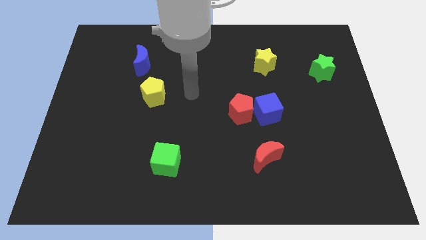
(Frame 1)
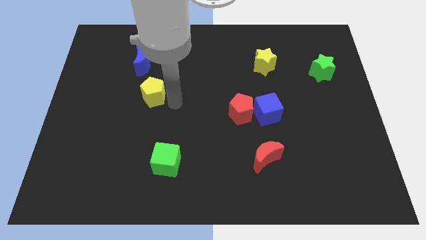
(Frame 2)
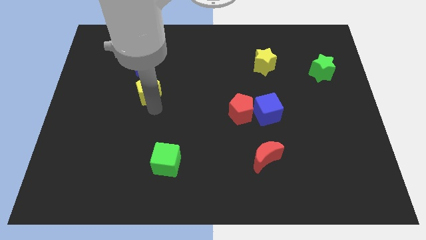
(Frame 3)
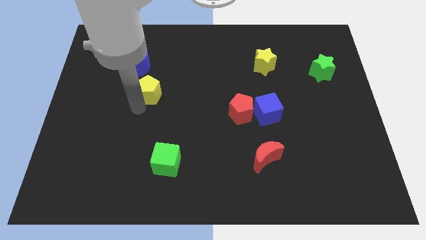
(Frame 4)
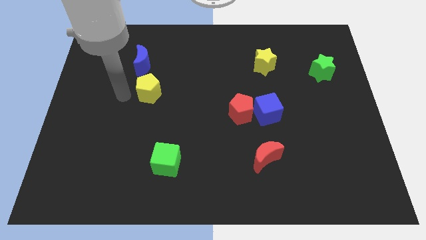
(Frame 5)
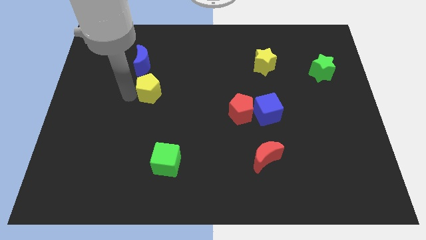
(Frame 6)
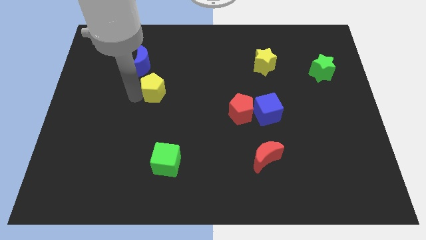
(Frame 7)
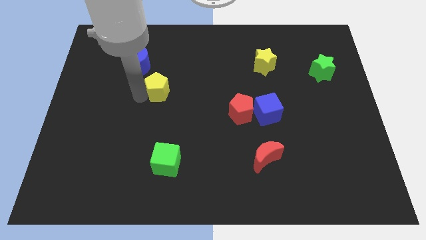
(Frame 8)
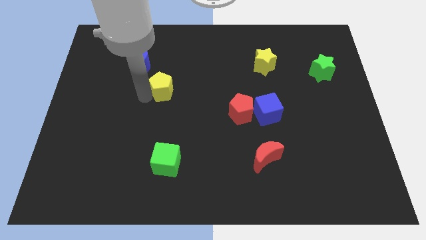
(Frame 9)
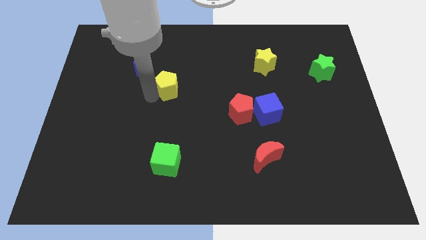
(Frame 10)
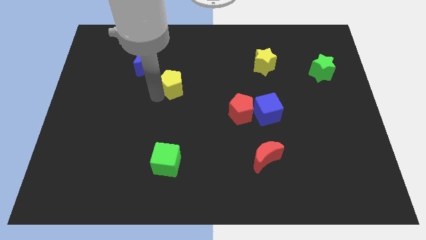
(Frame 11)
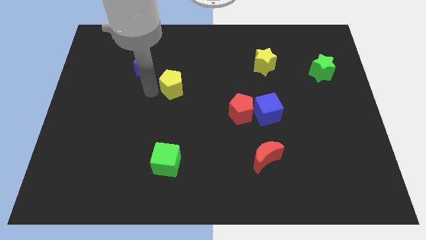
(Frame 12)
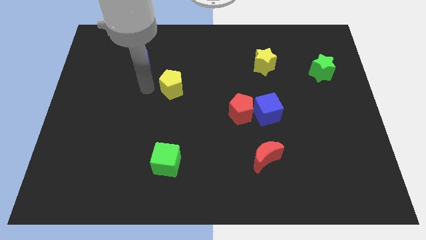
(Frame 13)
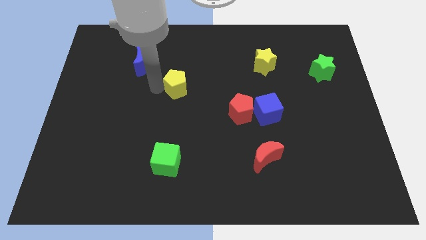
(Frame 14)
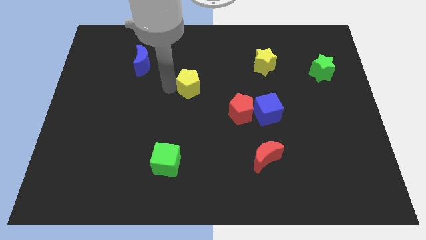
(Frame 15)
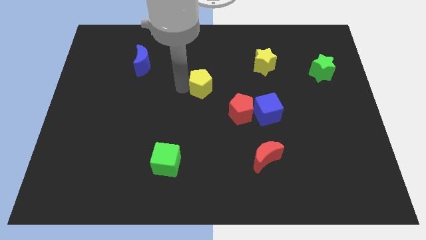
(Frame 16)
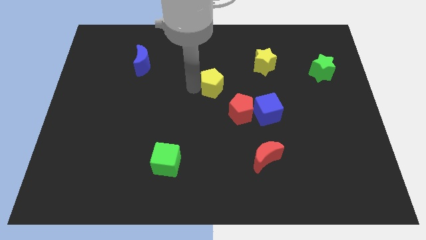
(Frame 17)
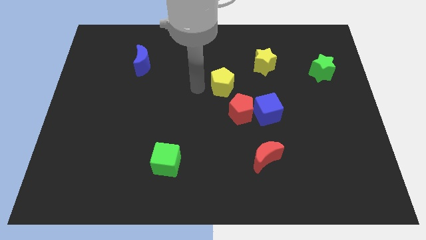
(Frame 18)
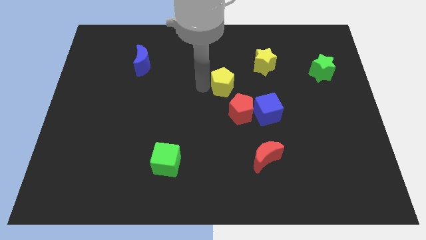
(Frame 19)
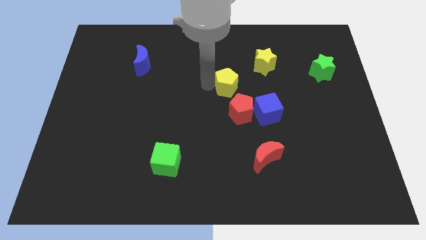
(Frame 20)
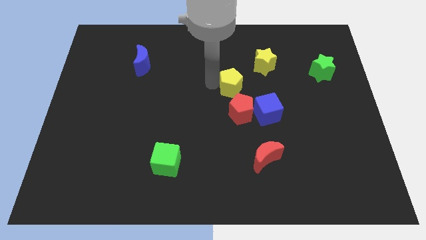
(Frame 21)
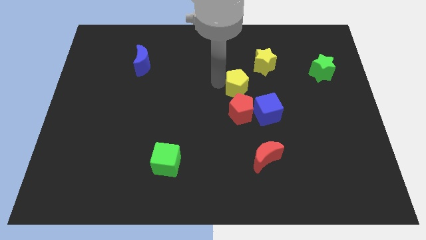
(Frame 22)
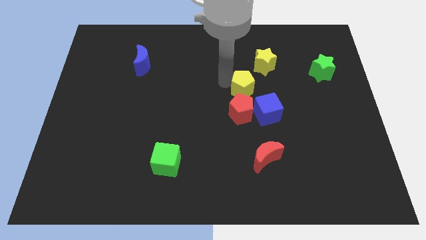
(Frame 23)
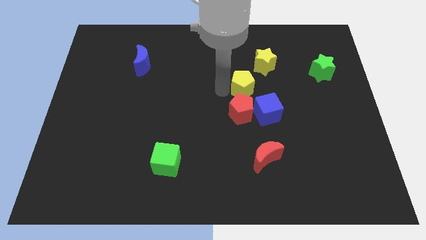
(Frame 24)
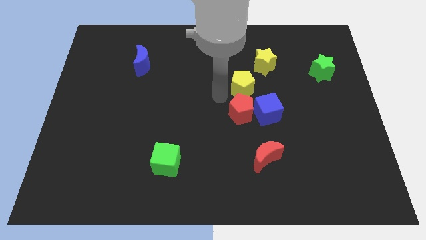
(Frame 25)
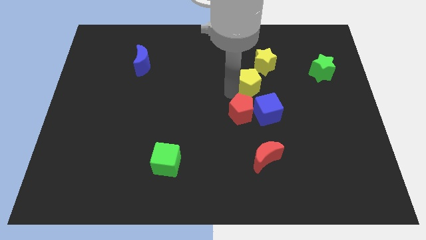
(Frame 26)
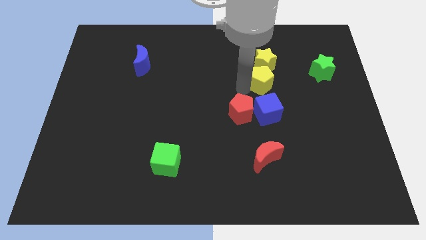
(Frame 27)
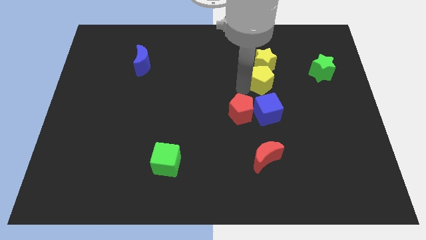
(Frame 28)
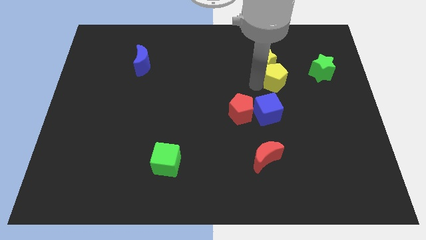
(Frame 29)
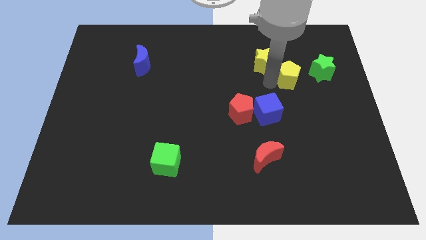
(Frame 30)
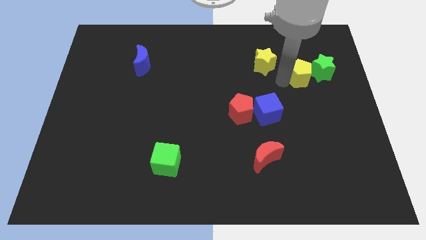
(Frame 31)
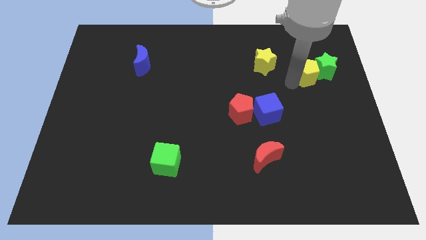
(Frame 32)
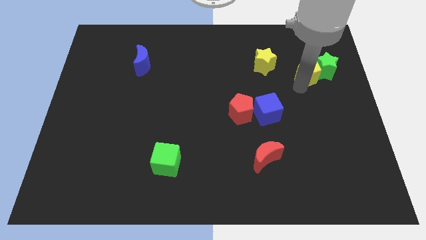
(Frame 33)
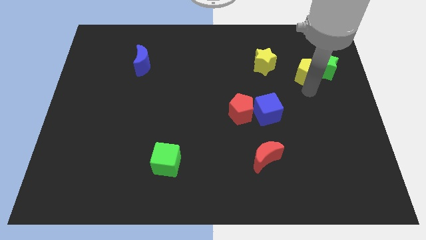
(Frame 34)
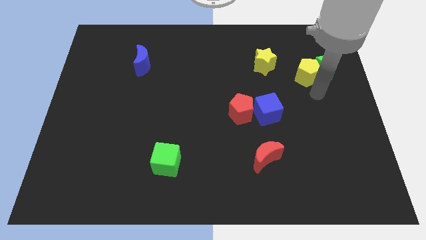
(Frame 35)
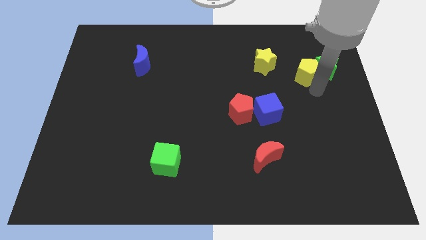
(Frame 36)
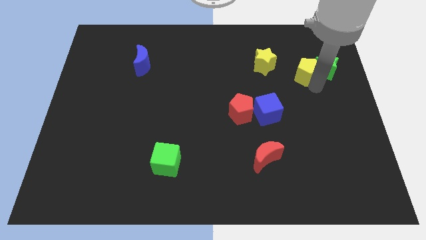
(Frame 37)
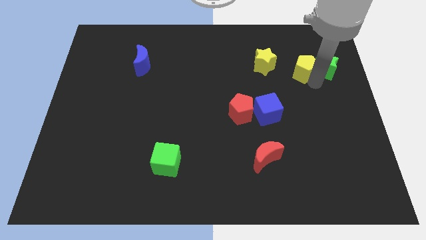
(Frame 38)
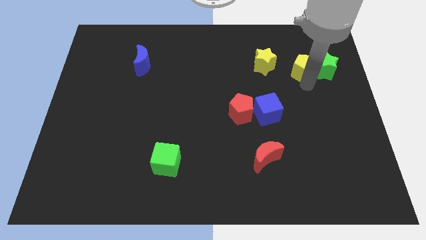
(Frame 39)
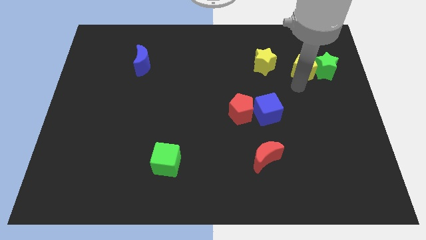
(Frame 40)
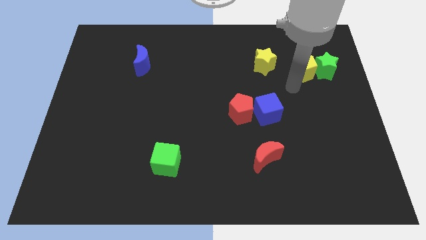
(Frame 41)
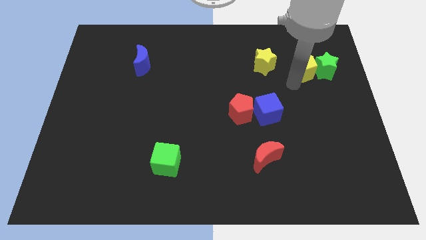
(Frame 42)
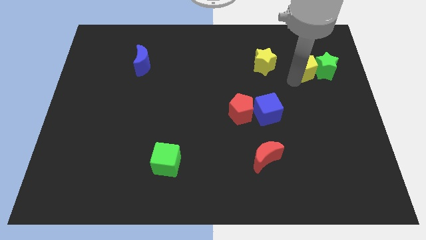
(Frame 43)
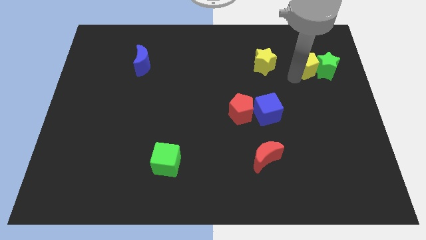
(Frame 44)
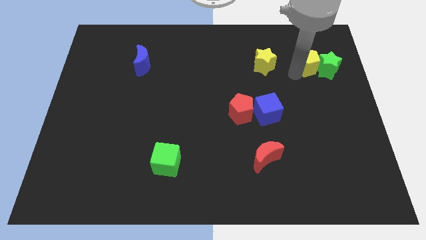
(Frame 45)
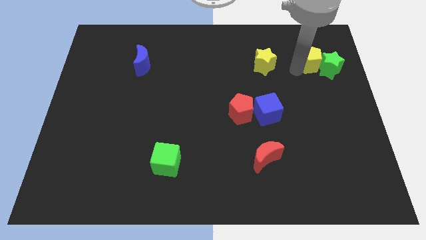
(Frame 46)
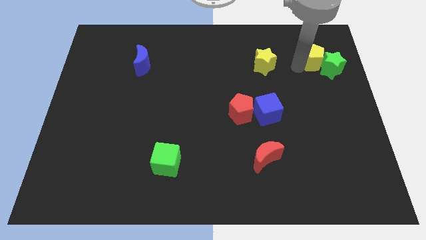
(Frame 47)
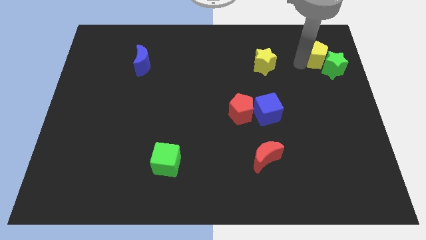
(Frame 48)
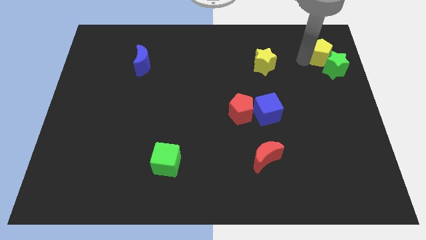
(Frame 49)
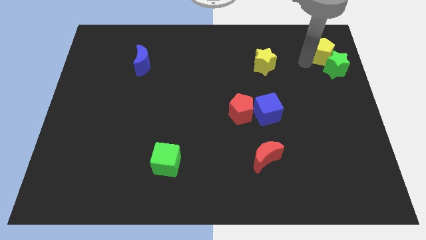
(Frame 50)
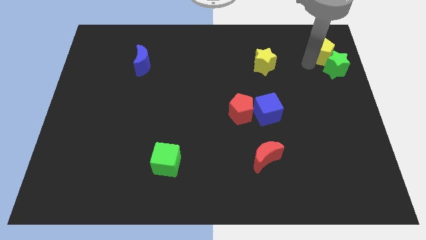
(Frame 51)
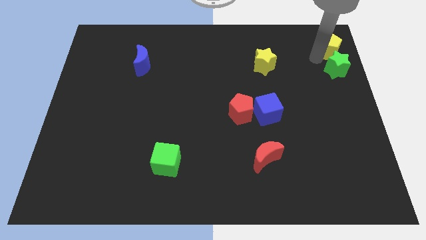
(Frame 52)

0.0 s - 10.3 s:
slide the yellow pentagon to the top right corner

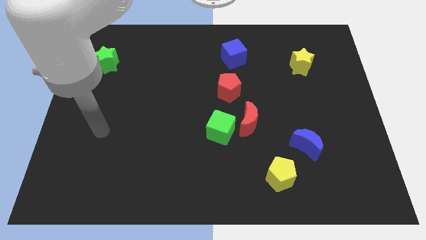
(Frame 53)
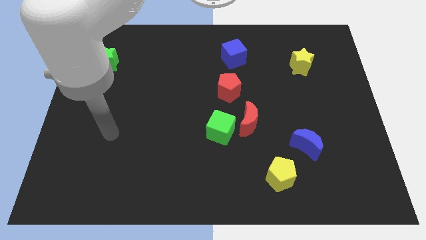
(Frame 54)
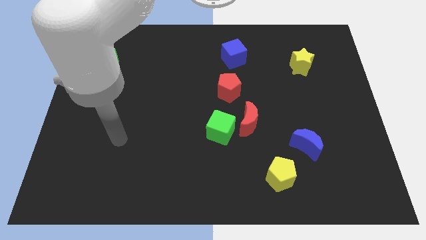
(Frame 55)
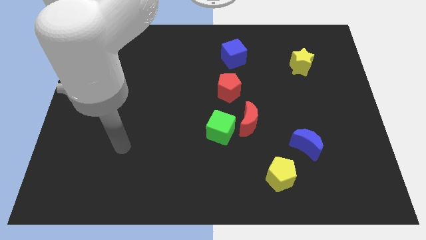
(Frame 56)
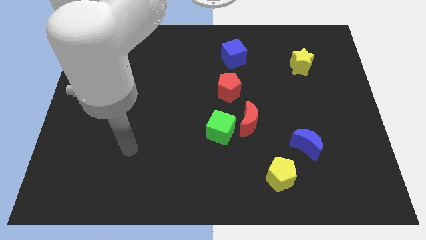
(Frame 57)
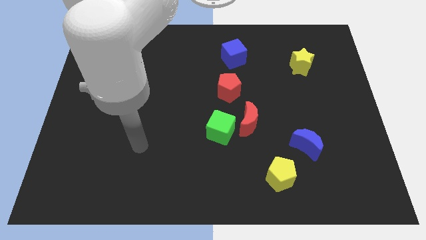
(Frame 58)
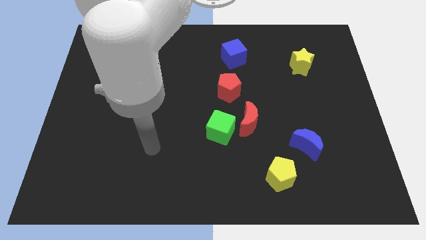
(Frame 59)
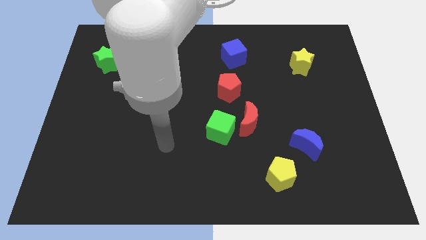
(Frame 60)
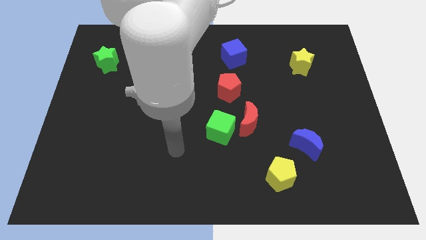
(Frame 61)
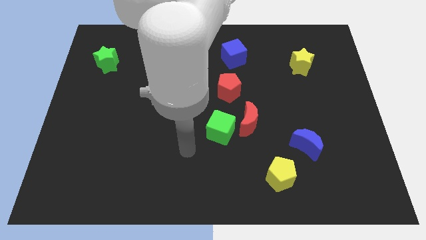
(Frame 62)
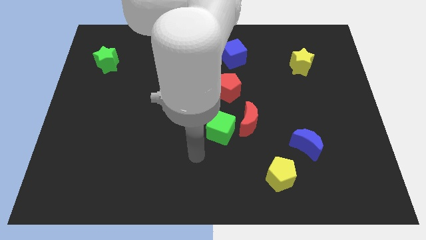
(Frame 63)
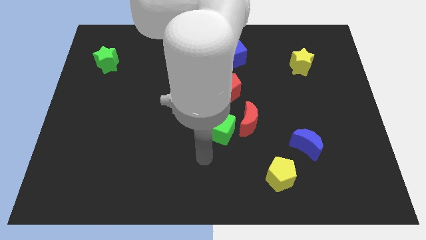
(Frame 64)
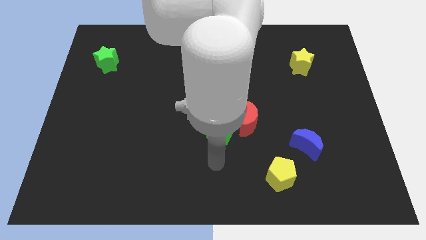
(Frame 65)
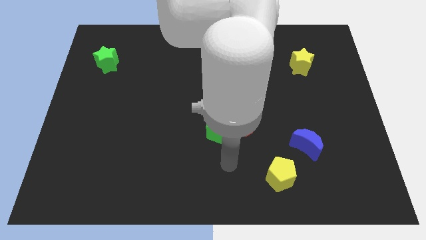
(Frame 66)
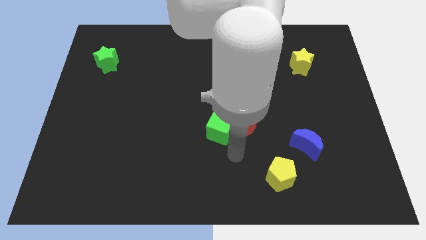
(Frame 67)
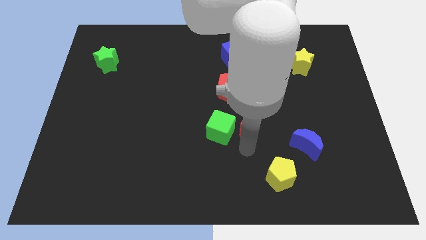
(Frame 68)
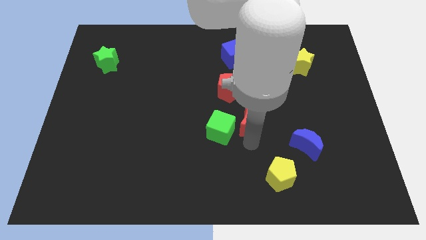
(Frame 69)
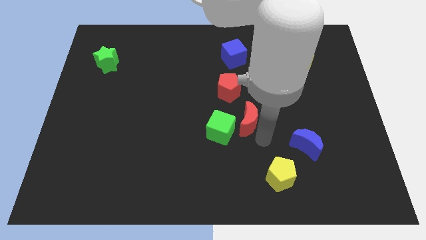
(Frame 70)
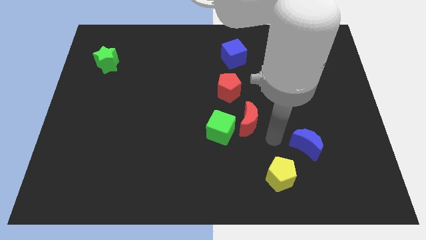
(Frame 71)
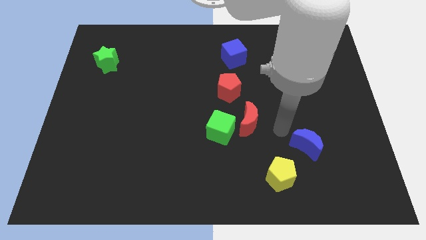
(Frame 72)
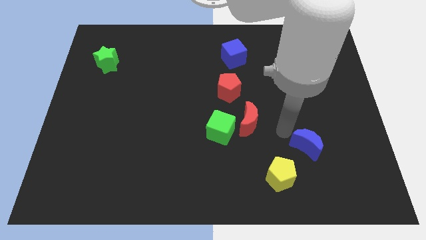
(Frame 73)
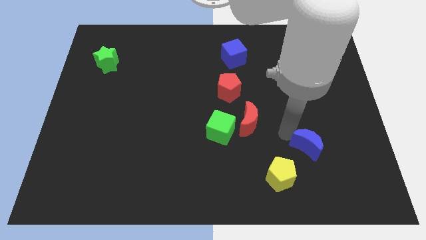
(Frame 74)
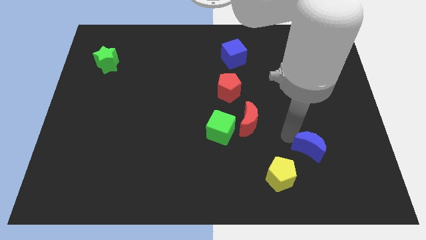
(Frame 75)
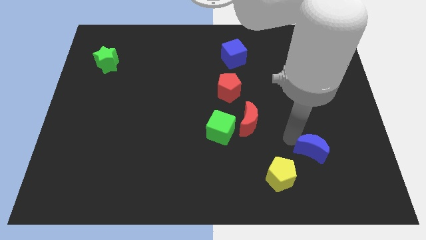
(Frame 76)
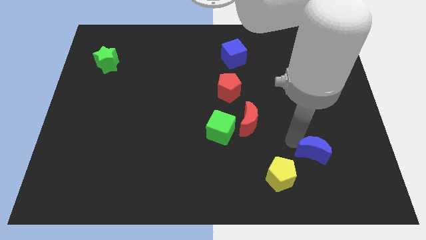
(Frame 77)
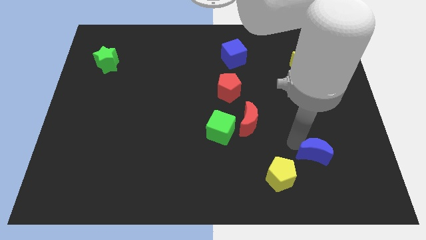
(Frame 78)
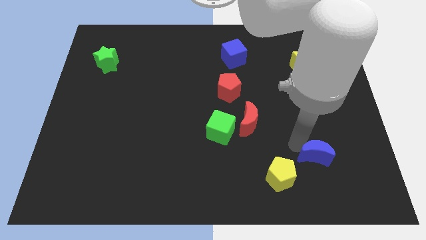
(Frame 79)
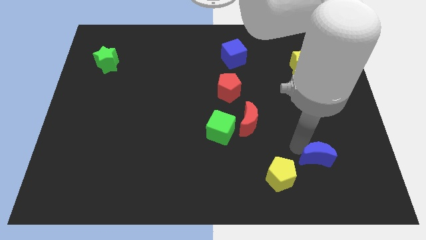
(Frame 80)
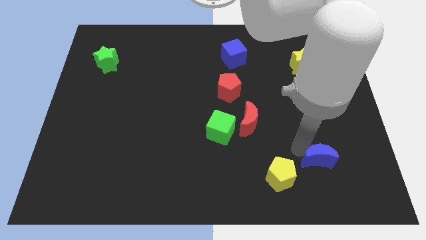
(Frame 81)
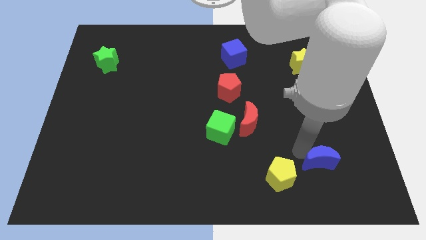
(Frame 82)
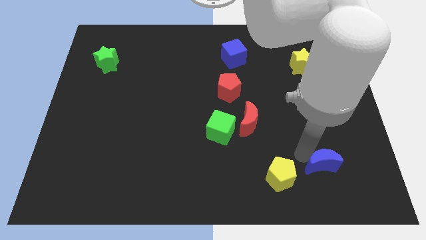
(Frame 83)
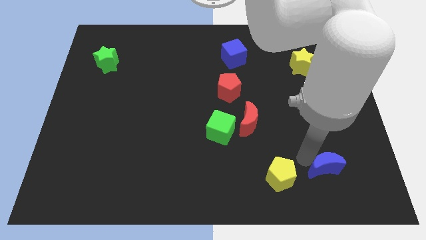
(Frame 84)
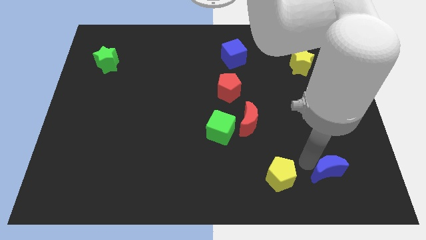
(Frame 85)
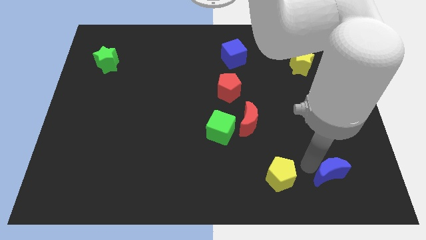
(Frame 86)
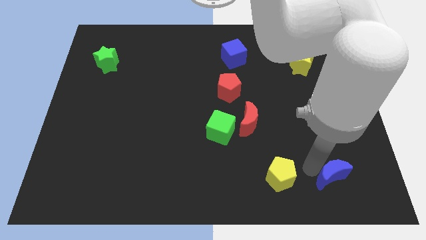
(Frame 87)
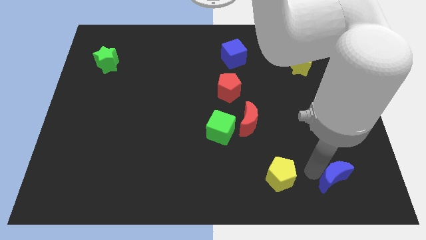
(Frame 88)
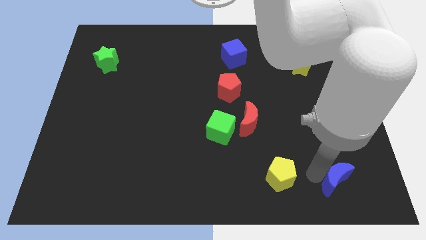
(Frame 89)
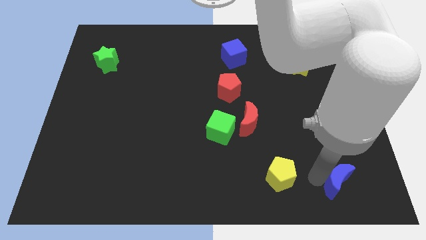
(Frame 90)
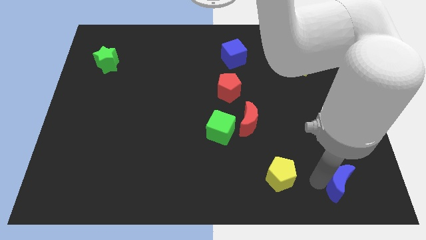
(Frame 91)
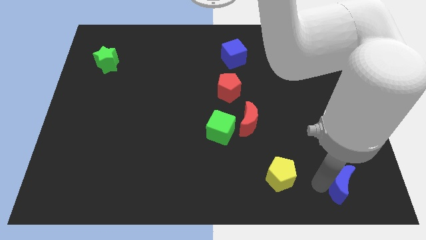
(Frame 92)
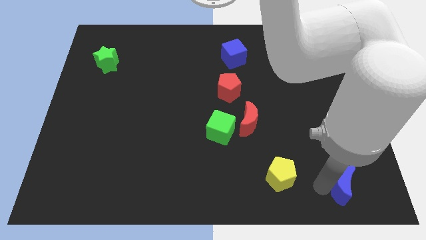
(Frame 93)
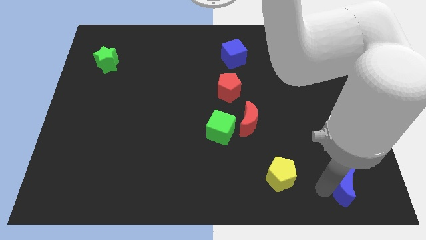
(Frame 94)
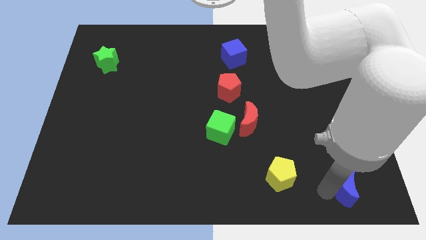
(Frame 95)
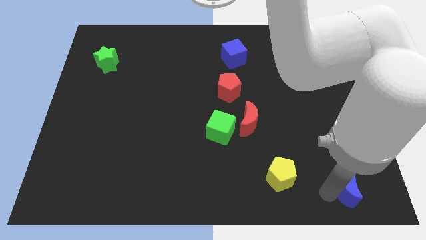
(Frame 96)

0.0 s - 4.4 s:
put the blue moon to the lower right corner
